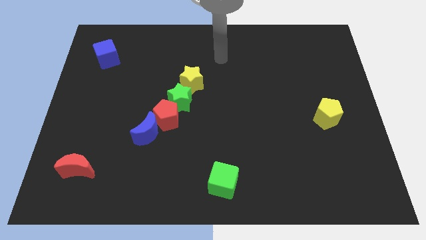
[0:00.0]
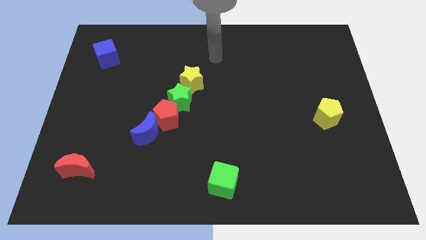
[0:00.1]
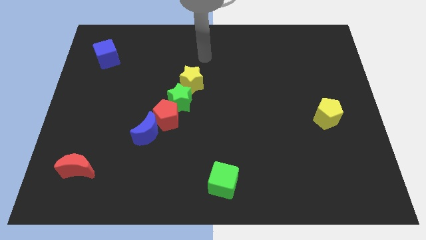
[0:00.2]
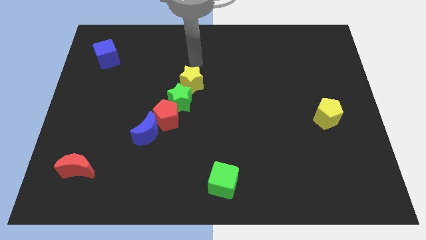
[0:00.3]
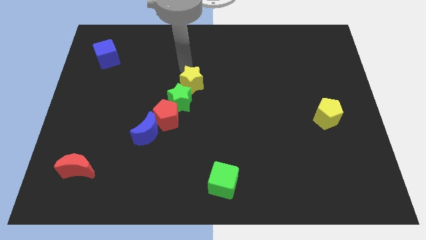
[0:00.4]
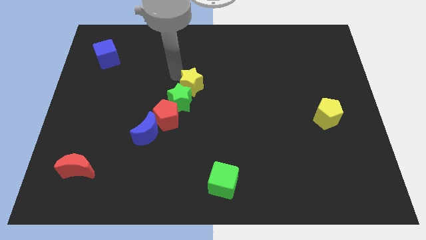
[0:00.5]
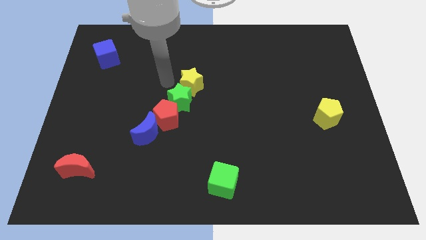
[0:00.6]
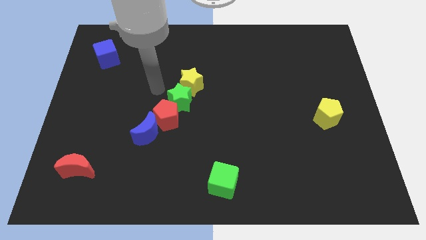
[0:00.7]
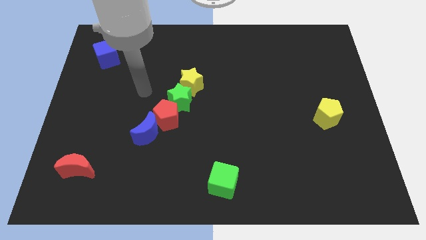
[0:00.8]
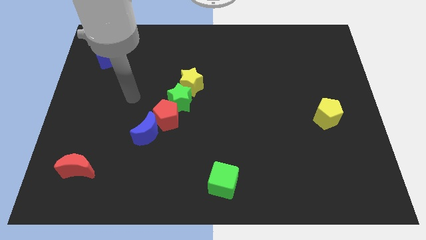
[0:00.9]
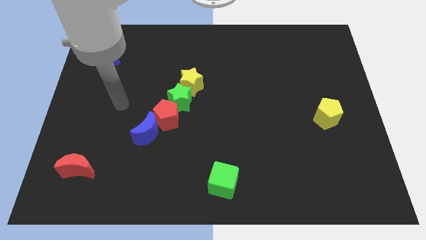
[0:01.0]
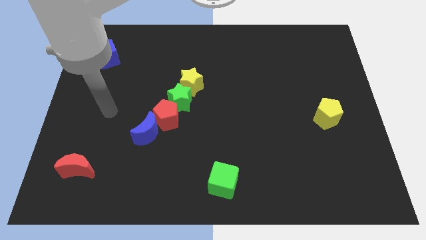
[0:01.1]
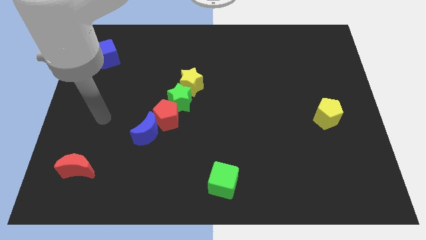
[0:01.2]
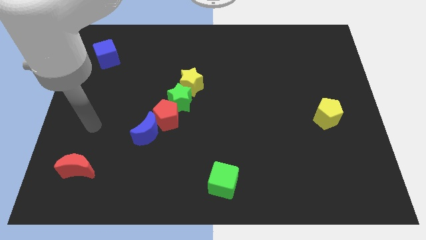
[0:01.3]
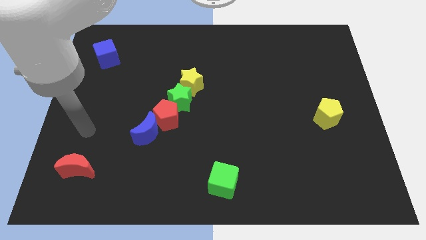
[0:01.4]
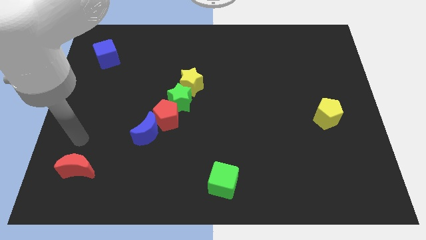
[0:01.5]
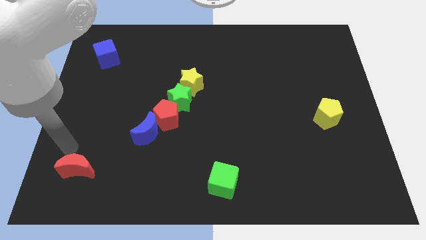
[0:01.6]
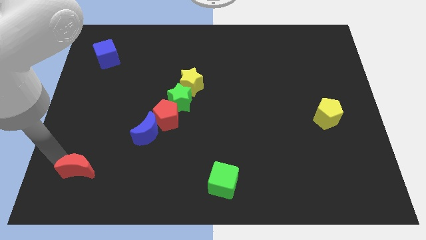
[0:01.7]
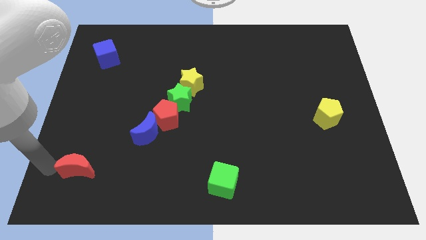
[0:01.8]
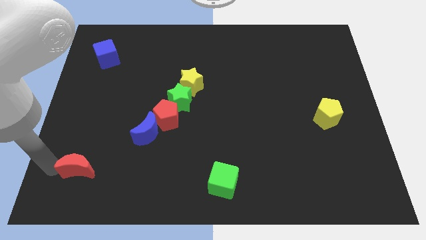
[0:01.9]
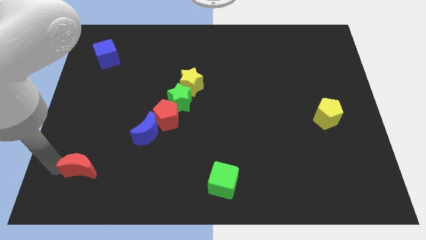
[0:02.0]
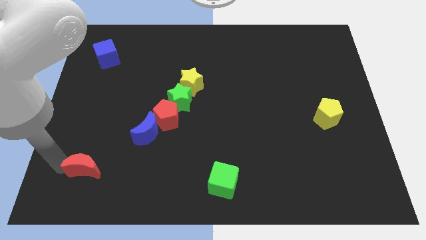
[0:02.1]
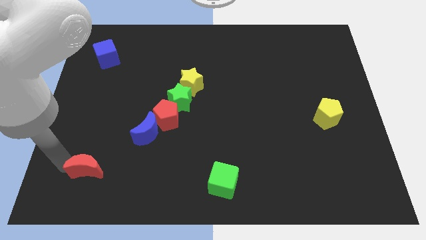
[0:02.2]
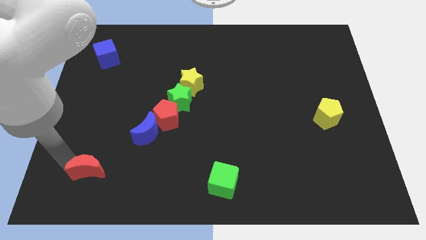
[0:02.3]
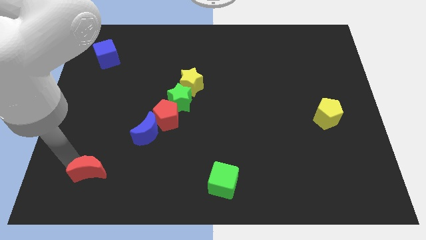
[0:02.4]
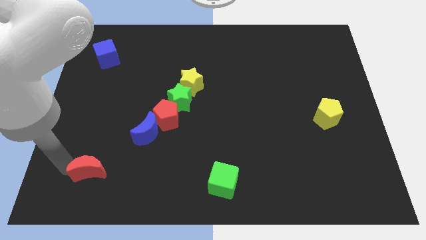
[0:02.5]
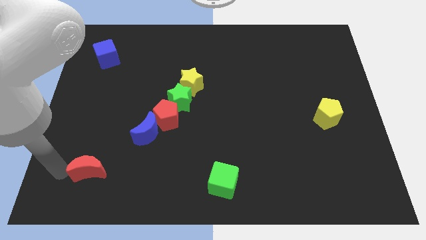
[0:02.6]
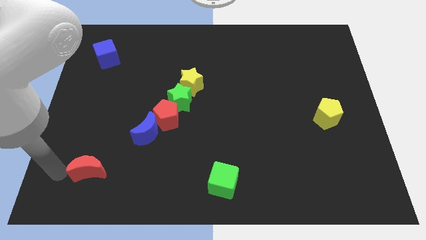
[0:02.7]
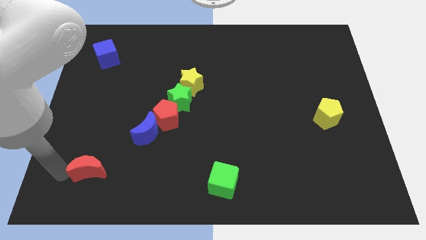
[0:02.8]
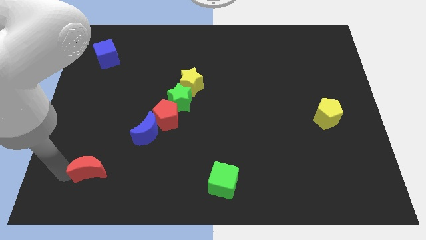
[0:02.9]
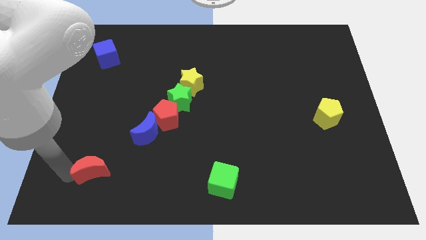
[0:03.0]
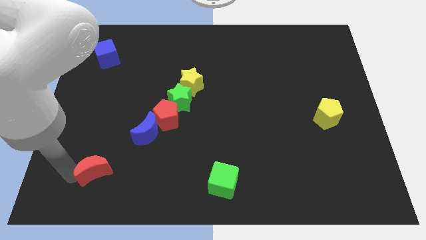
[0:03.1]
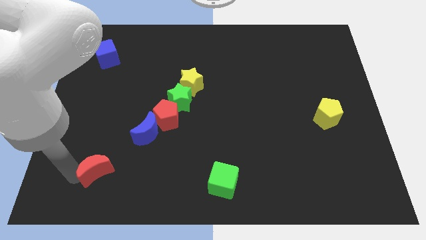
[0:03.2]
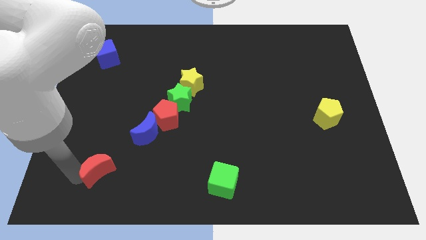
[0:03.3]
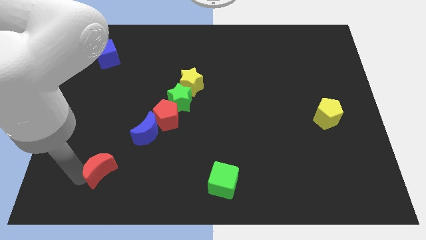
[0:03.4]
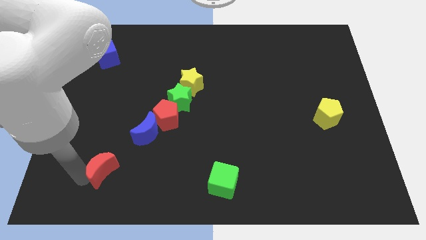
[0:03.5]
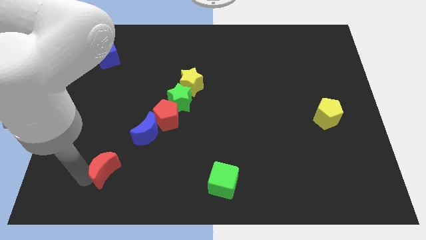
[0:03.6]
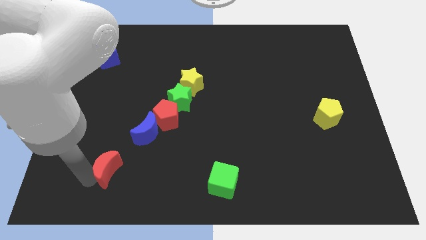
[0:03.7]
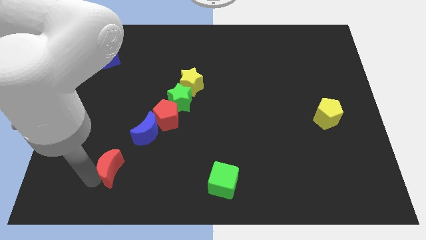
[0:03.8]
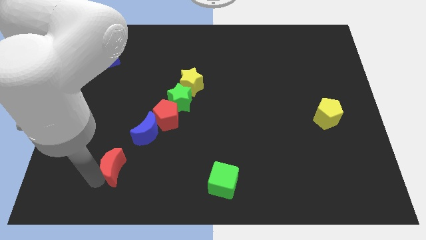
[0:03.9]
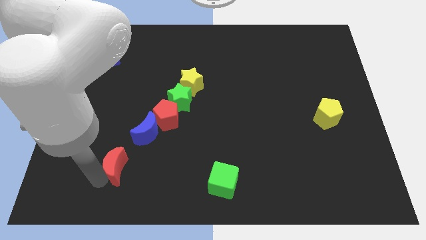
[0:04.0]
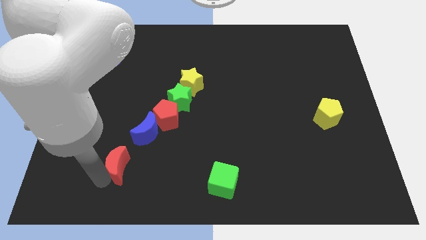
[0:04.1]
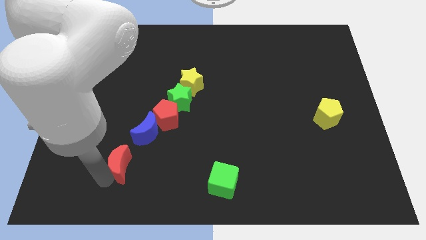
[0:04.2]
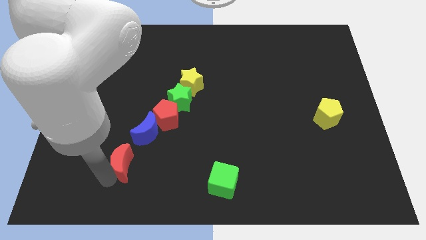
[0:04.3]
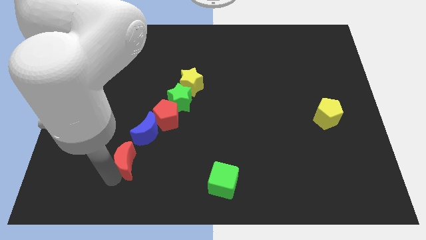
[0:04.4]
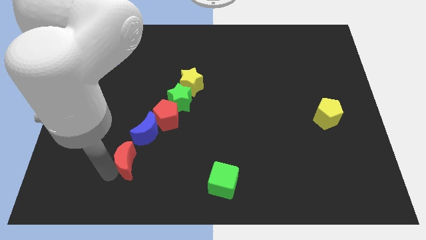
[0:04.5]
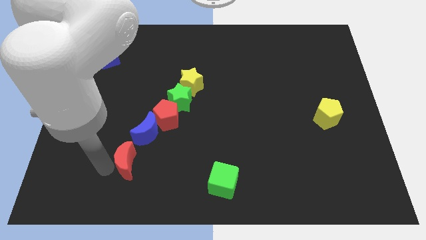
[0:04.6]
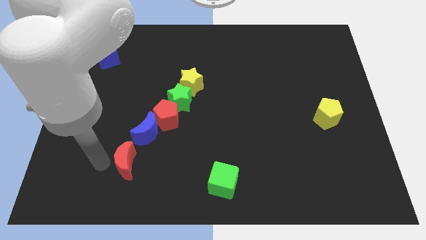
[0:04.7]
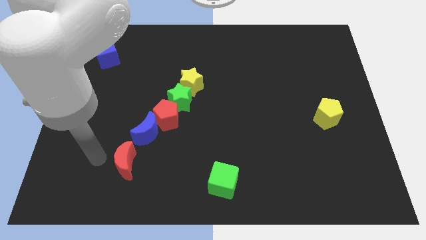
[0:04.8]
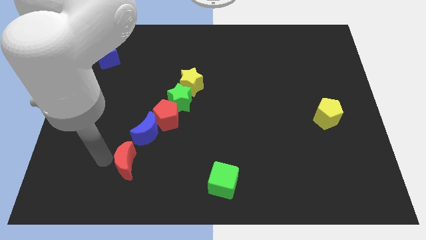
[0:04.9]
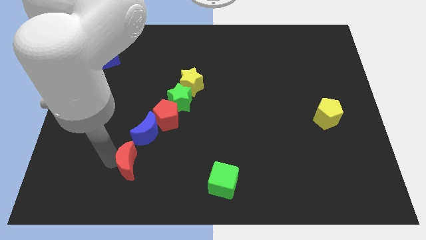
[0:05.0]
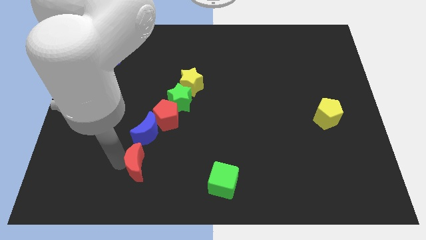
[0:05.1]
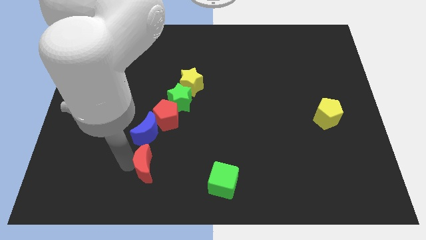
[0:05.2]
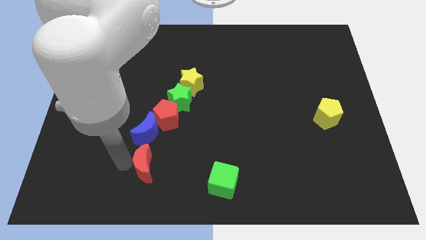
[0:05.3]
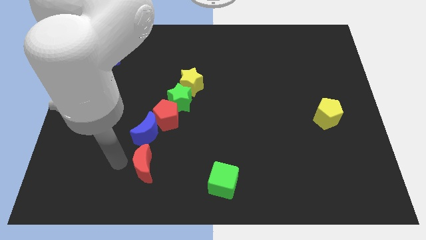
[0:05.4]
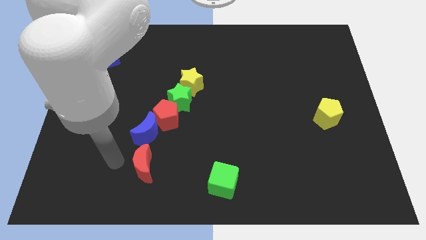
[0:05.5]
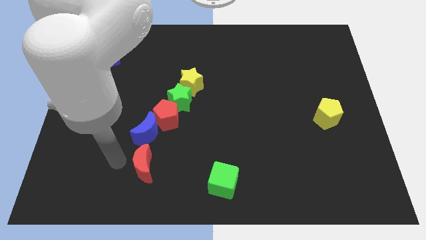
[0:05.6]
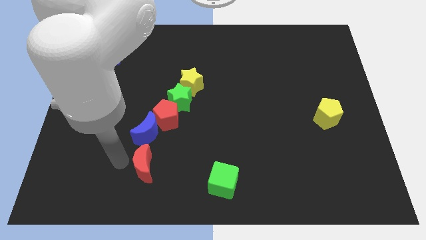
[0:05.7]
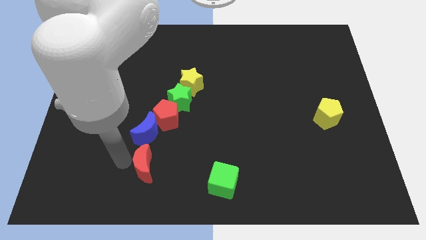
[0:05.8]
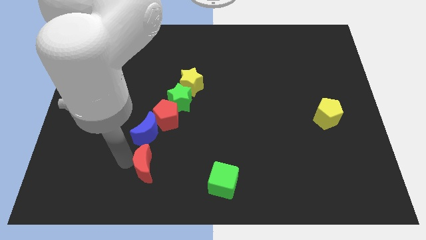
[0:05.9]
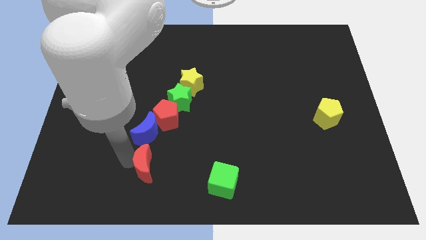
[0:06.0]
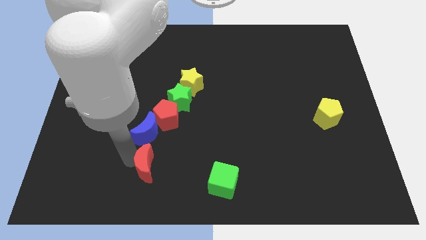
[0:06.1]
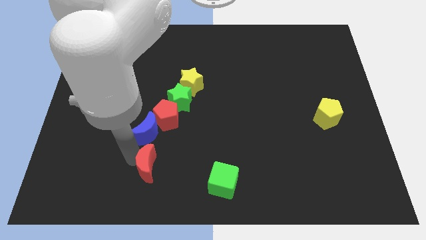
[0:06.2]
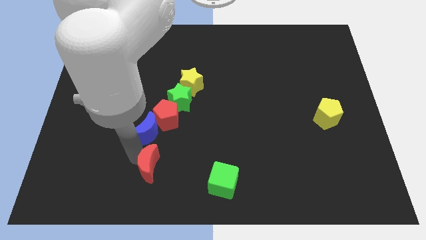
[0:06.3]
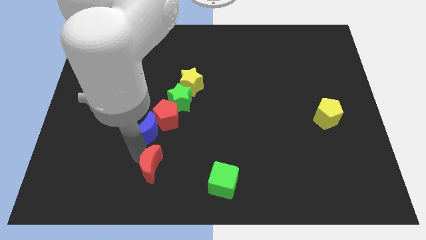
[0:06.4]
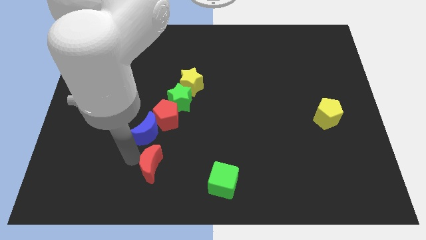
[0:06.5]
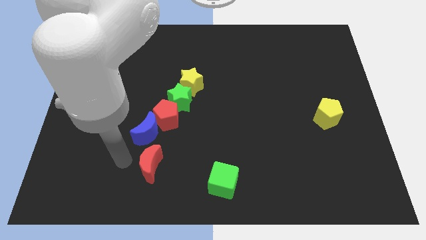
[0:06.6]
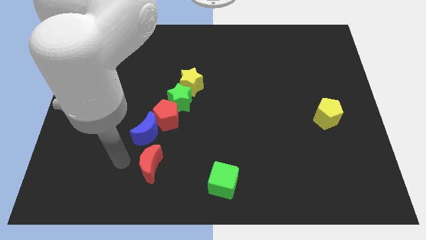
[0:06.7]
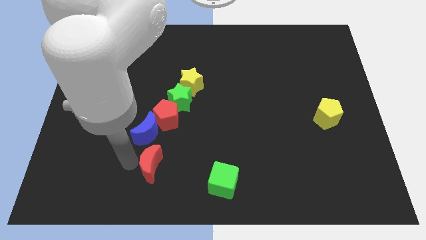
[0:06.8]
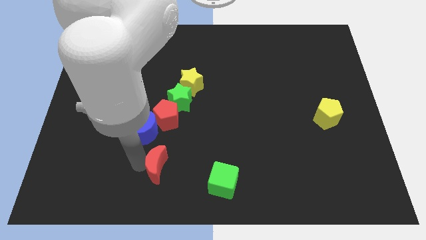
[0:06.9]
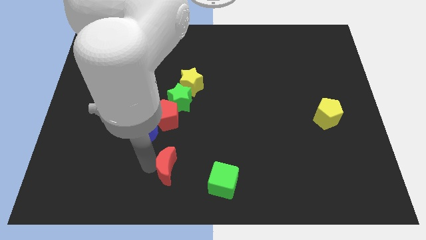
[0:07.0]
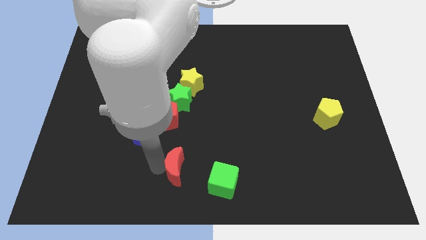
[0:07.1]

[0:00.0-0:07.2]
slide the red moon right

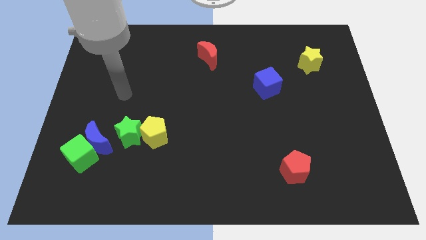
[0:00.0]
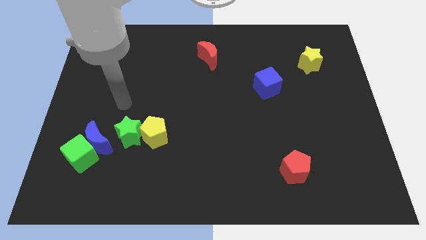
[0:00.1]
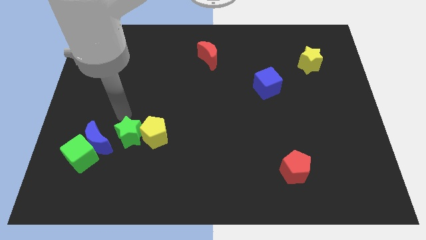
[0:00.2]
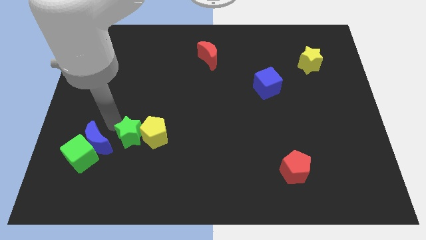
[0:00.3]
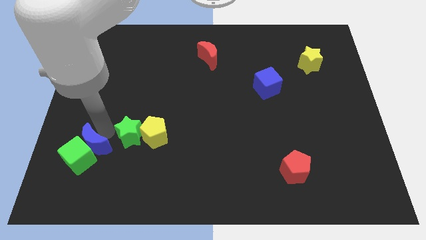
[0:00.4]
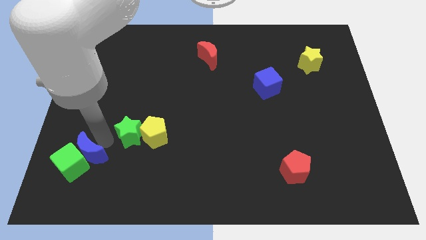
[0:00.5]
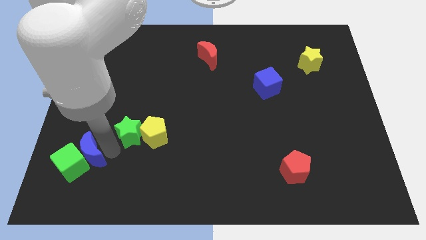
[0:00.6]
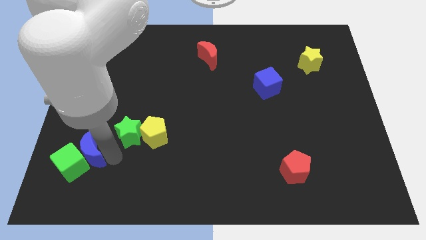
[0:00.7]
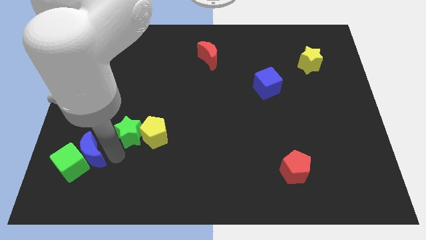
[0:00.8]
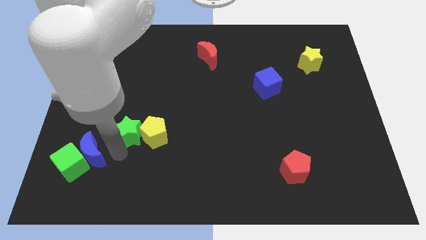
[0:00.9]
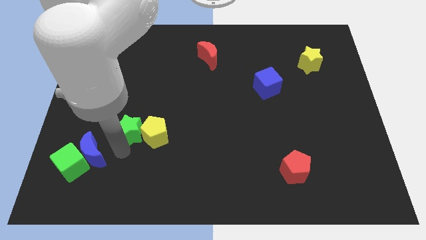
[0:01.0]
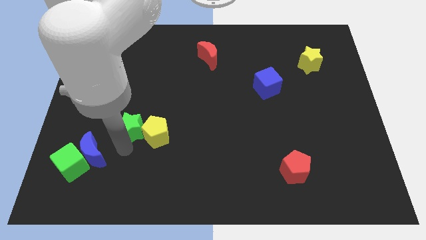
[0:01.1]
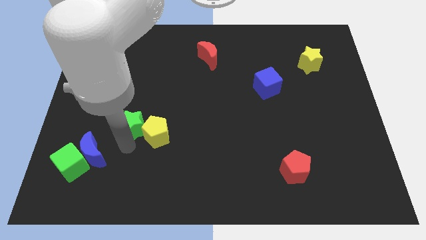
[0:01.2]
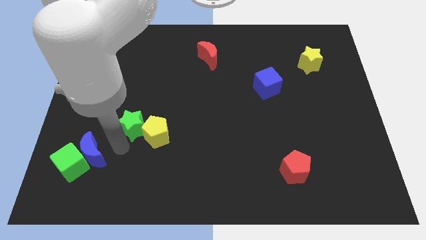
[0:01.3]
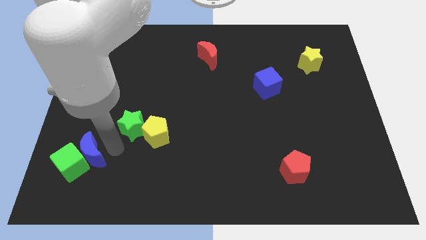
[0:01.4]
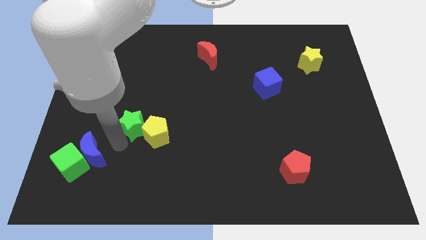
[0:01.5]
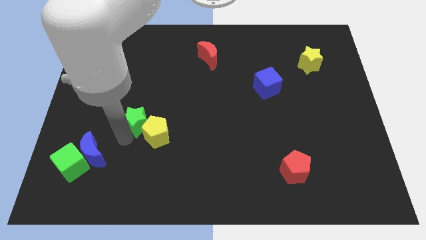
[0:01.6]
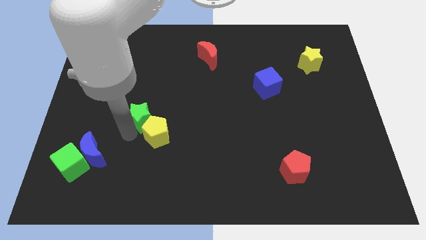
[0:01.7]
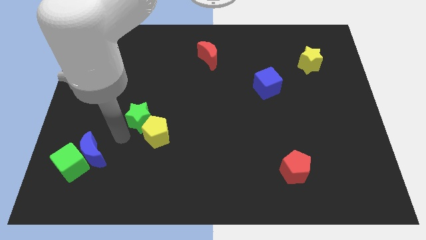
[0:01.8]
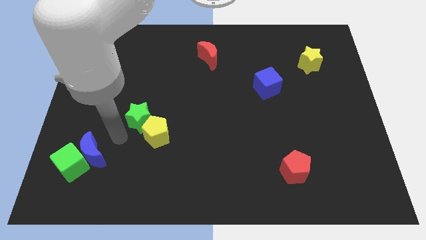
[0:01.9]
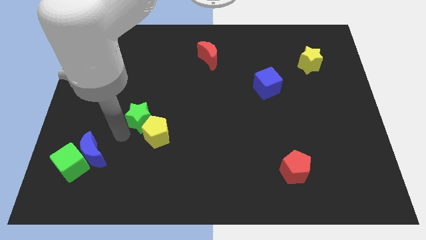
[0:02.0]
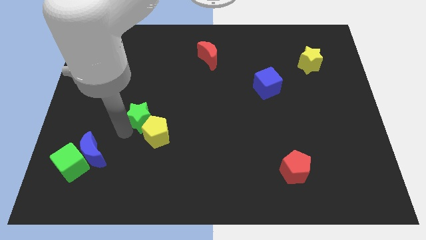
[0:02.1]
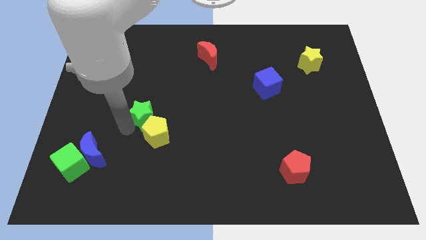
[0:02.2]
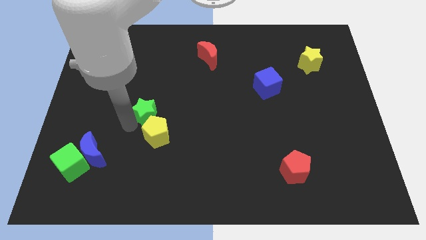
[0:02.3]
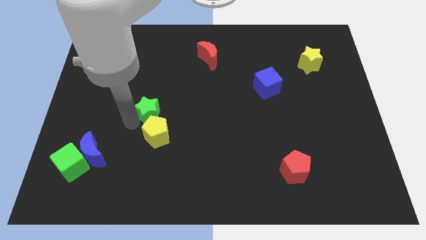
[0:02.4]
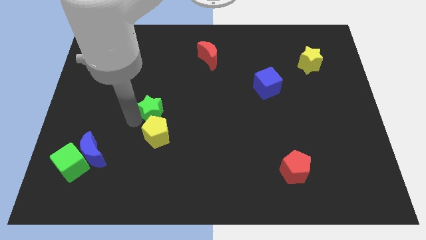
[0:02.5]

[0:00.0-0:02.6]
move the green star a bit diagonally up and to the right
